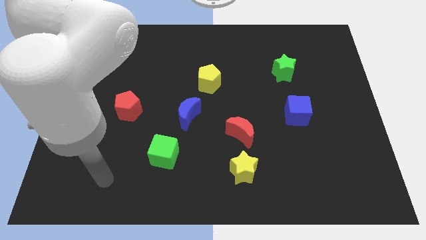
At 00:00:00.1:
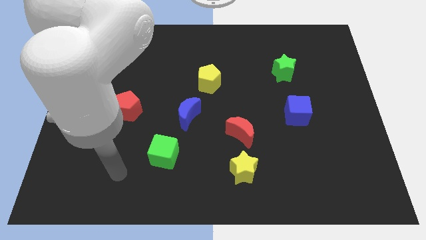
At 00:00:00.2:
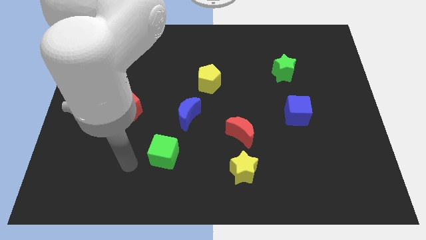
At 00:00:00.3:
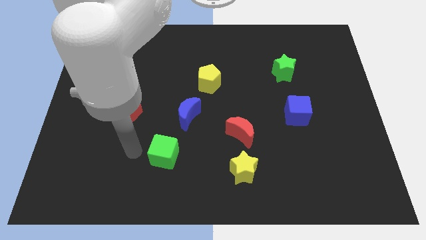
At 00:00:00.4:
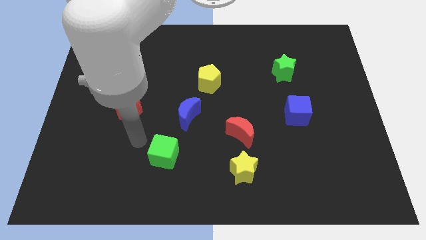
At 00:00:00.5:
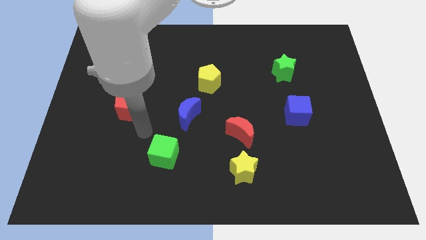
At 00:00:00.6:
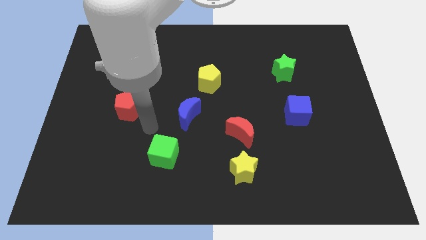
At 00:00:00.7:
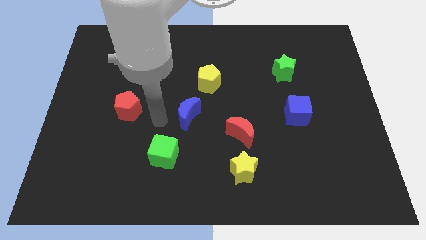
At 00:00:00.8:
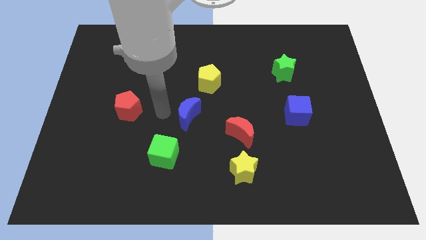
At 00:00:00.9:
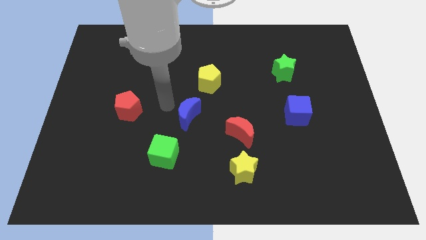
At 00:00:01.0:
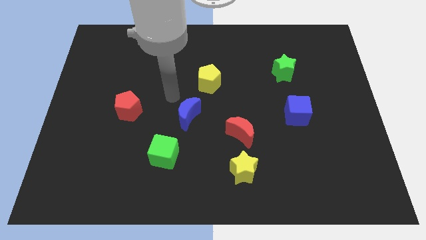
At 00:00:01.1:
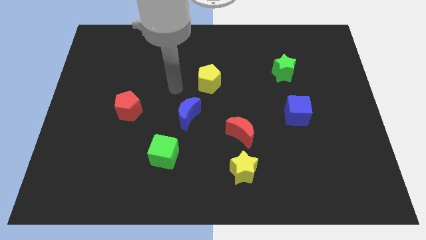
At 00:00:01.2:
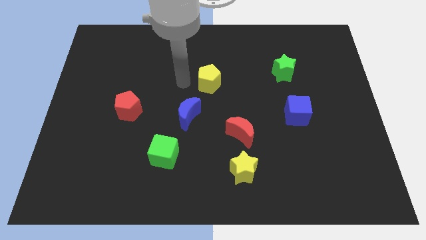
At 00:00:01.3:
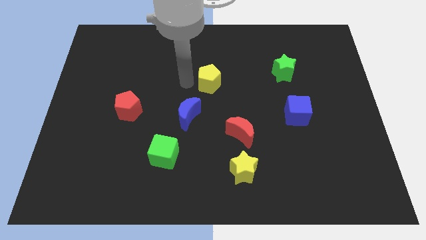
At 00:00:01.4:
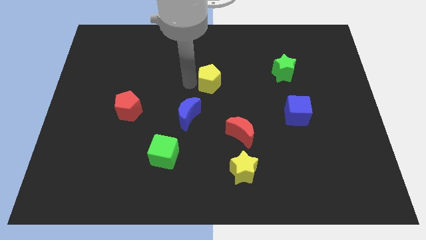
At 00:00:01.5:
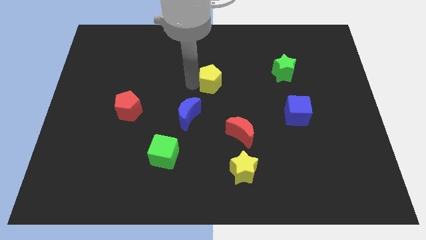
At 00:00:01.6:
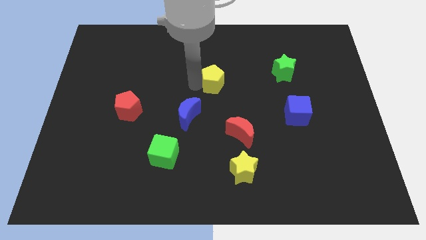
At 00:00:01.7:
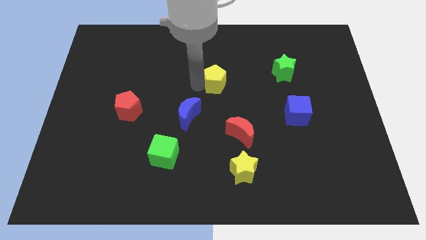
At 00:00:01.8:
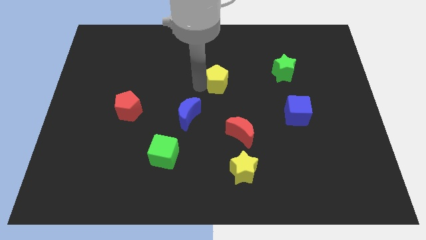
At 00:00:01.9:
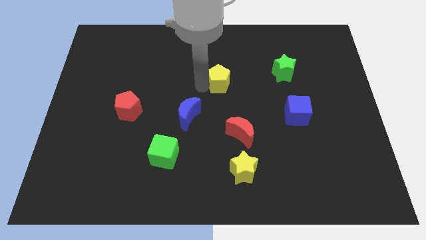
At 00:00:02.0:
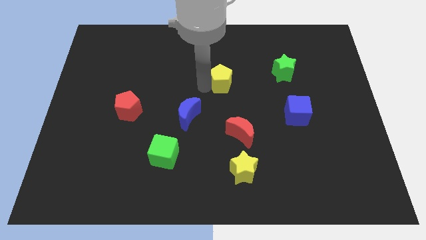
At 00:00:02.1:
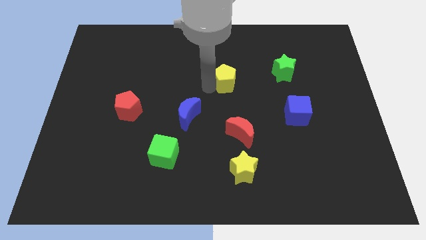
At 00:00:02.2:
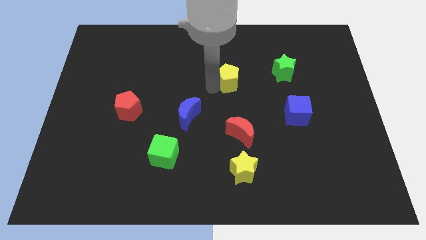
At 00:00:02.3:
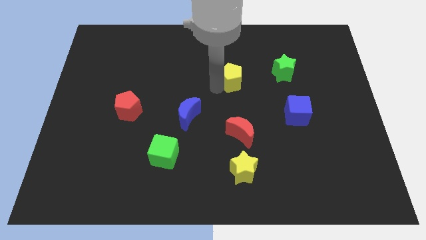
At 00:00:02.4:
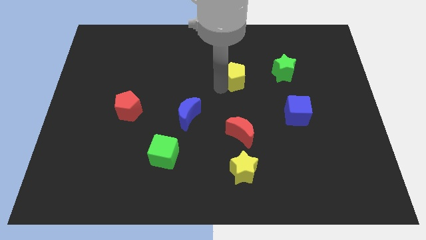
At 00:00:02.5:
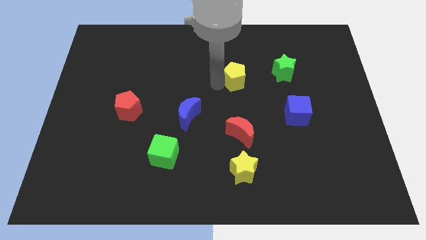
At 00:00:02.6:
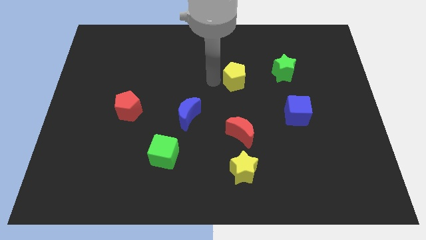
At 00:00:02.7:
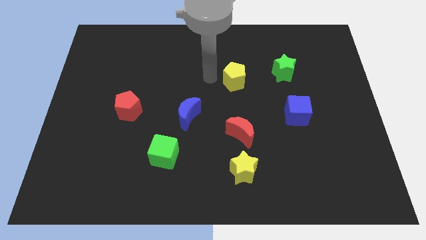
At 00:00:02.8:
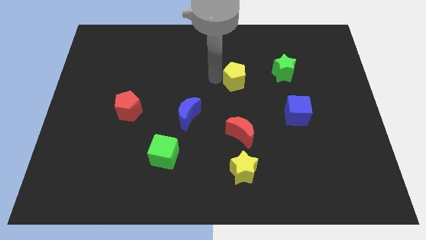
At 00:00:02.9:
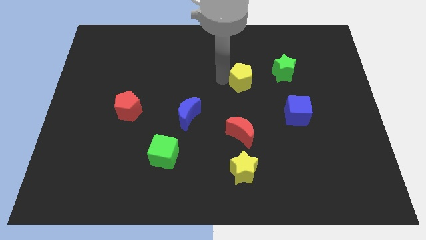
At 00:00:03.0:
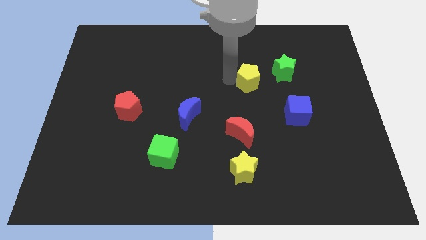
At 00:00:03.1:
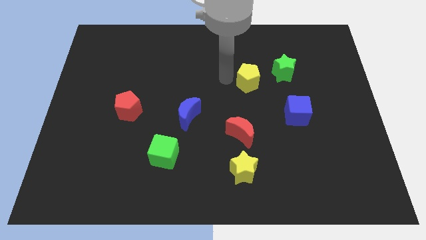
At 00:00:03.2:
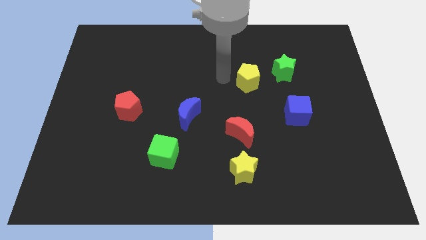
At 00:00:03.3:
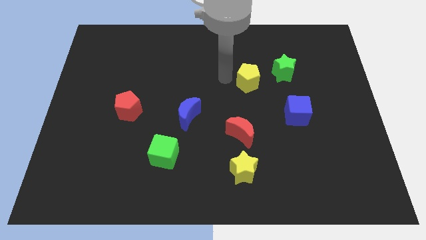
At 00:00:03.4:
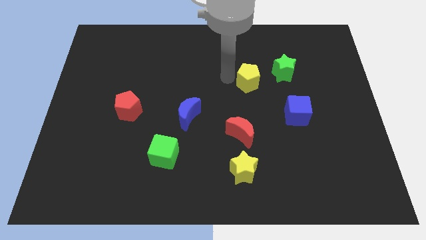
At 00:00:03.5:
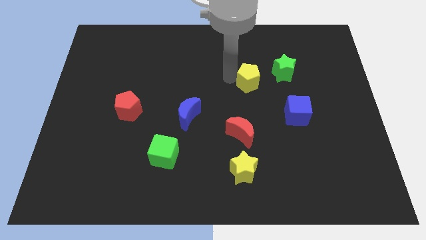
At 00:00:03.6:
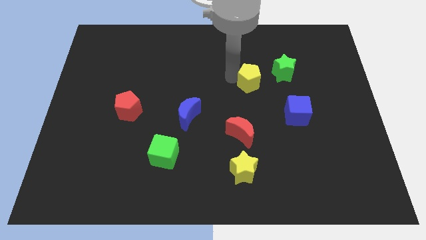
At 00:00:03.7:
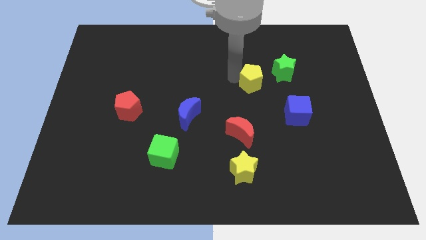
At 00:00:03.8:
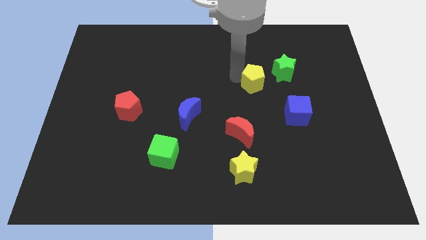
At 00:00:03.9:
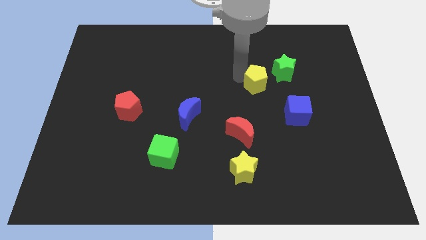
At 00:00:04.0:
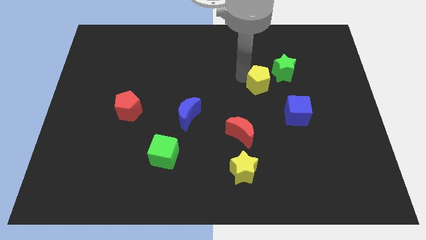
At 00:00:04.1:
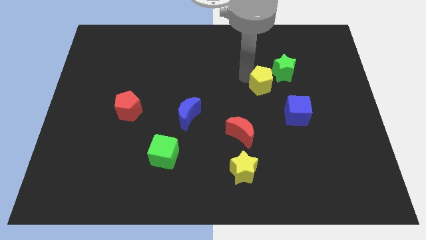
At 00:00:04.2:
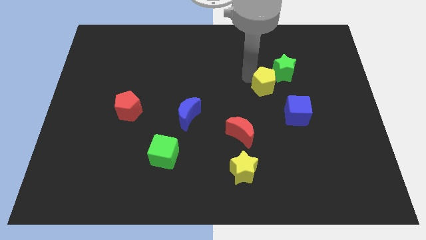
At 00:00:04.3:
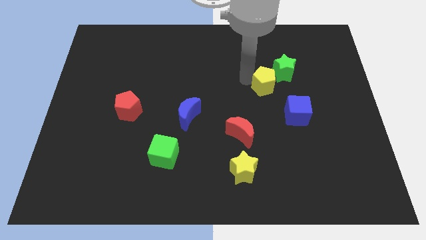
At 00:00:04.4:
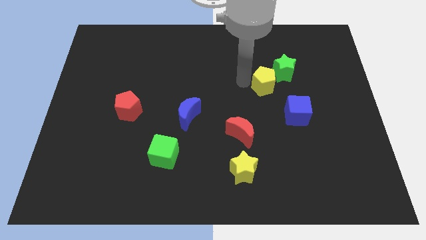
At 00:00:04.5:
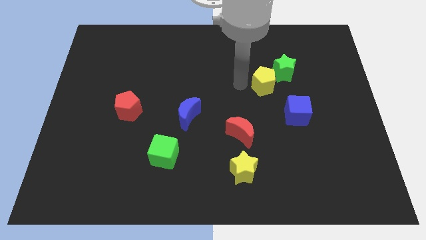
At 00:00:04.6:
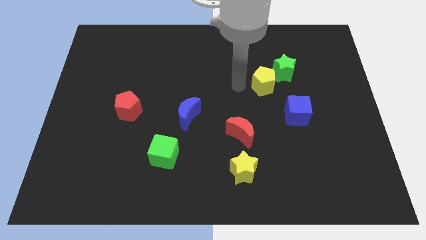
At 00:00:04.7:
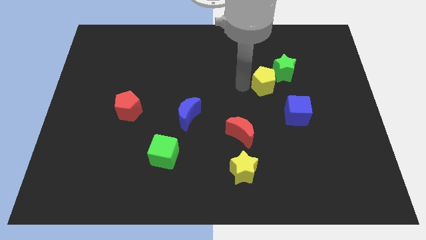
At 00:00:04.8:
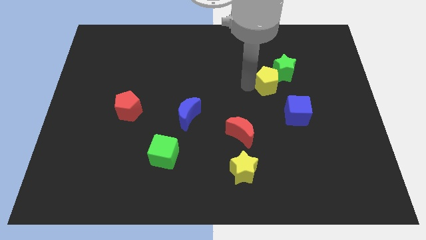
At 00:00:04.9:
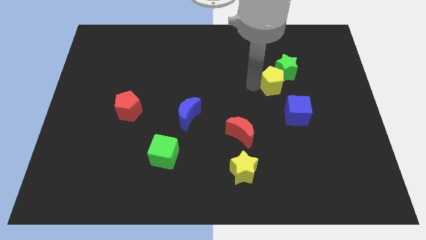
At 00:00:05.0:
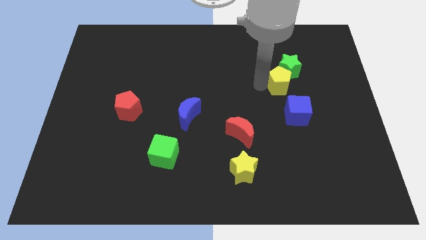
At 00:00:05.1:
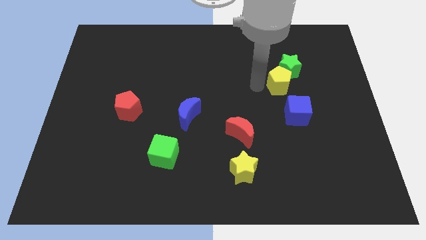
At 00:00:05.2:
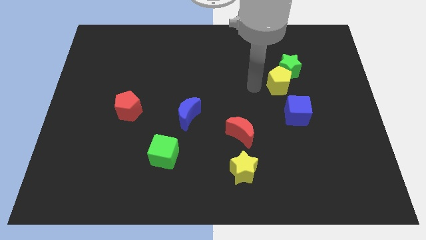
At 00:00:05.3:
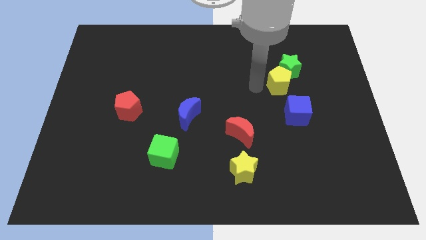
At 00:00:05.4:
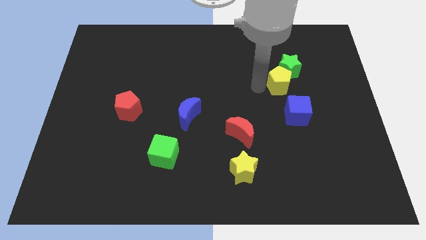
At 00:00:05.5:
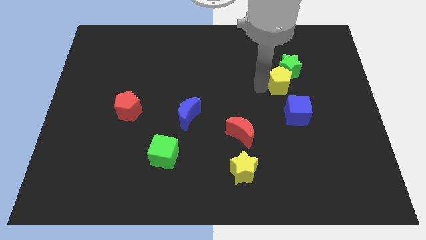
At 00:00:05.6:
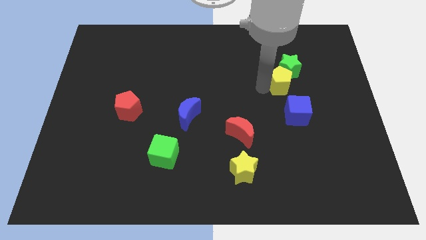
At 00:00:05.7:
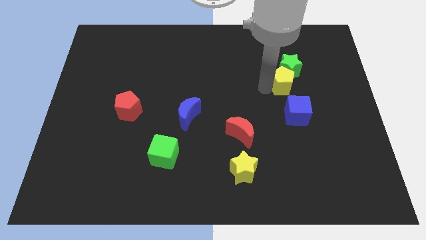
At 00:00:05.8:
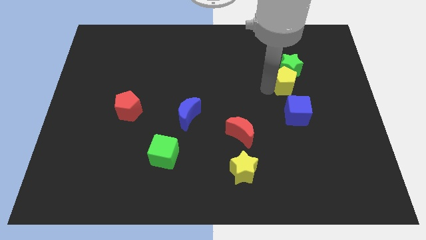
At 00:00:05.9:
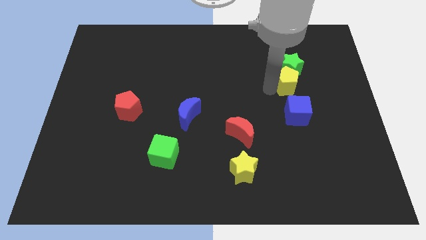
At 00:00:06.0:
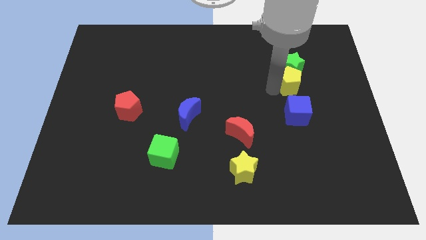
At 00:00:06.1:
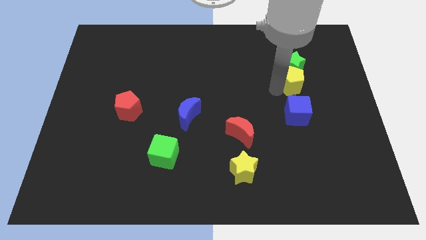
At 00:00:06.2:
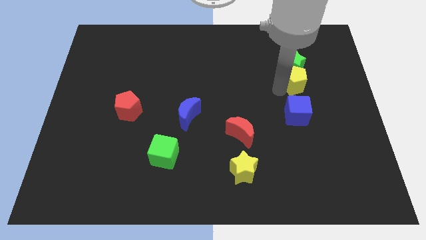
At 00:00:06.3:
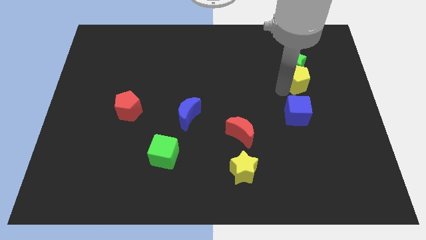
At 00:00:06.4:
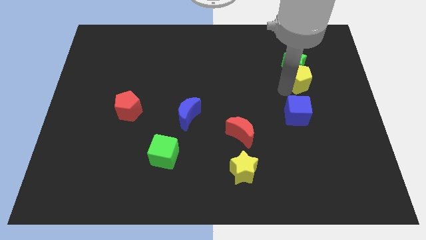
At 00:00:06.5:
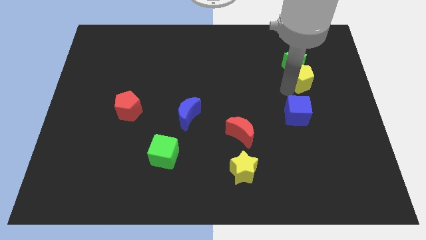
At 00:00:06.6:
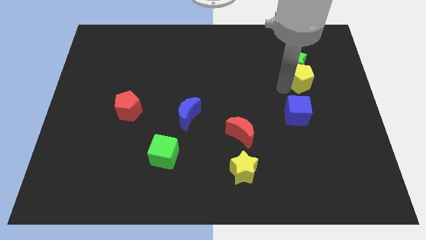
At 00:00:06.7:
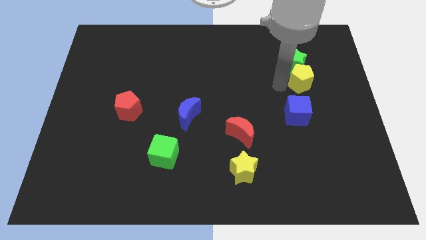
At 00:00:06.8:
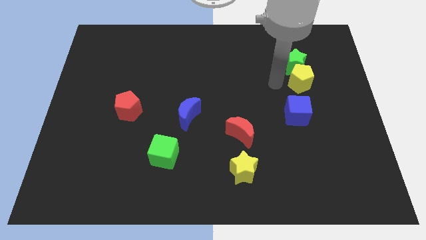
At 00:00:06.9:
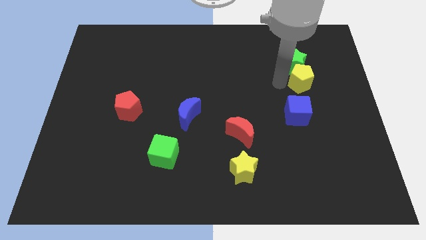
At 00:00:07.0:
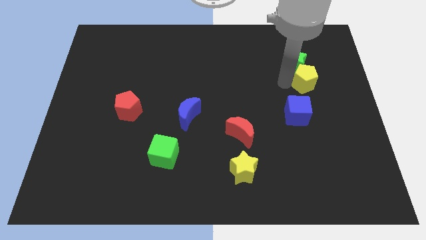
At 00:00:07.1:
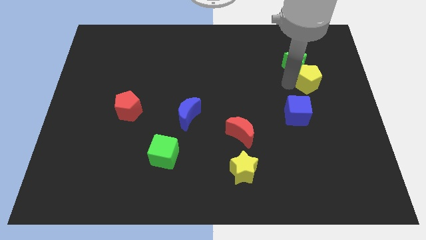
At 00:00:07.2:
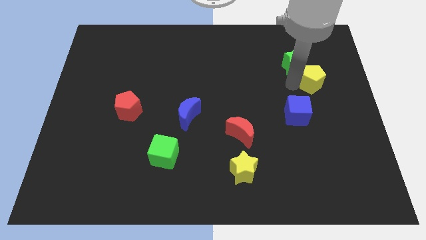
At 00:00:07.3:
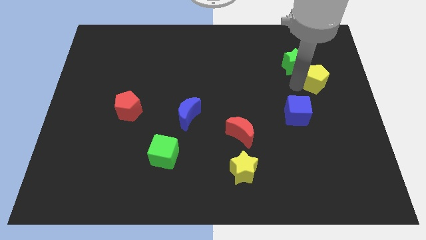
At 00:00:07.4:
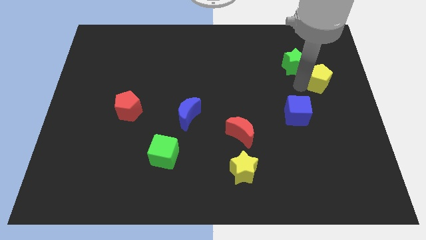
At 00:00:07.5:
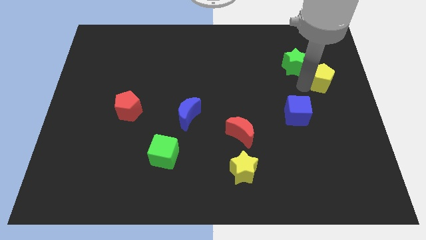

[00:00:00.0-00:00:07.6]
slide the yellow pentagon just right of the green star
